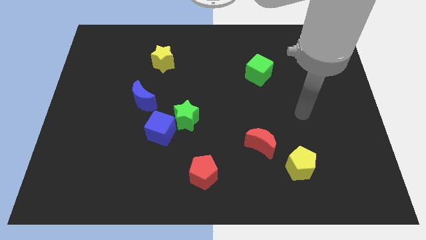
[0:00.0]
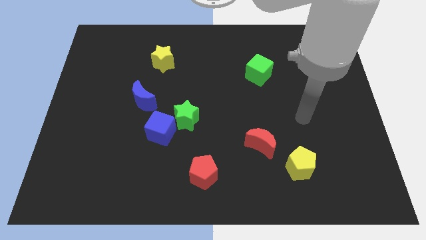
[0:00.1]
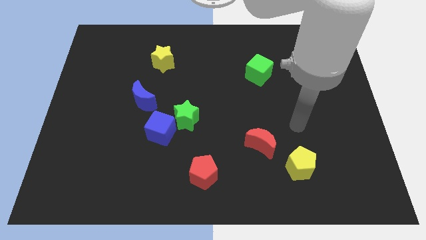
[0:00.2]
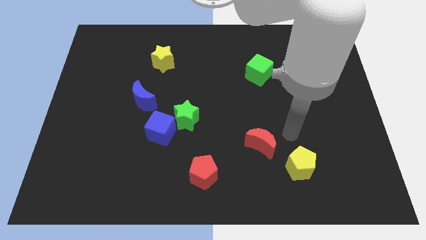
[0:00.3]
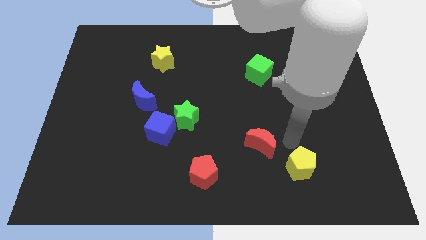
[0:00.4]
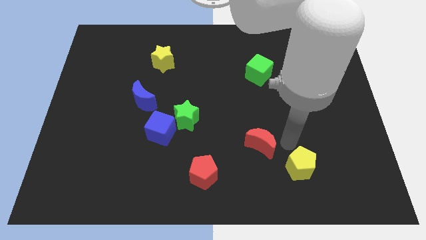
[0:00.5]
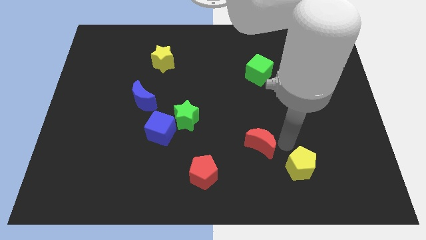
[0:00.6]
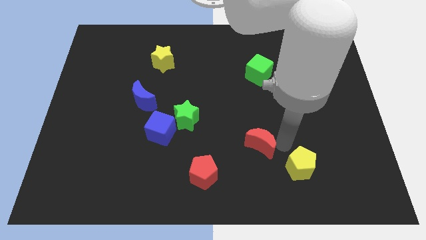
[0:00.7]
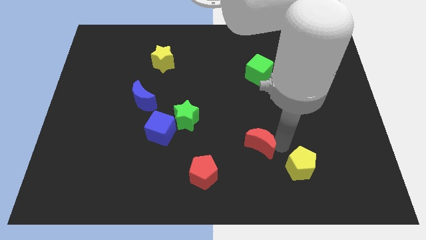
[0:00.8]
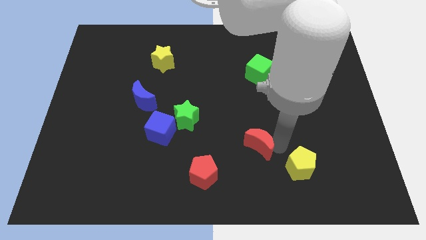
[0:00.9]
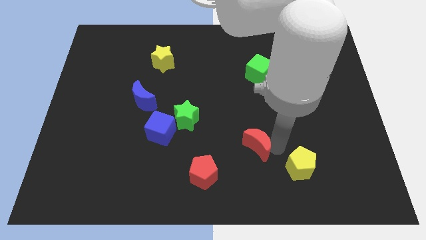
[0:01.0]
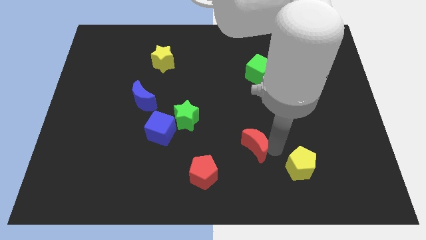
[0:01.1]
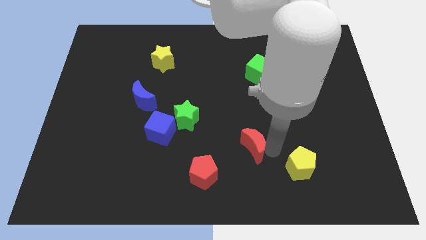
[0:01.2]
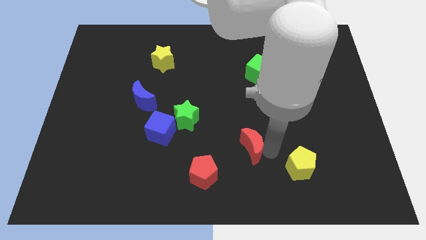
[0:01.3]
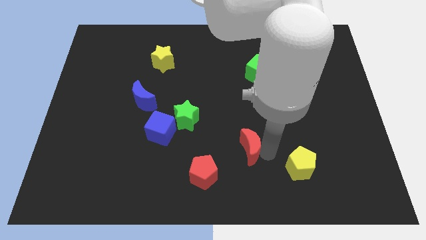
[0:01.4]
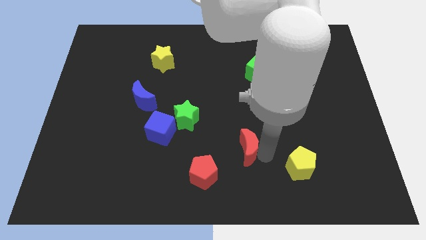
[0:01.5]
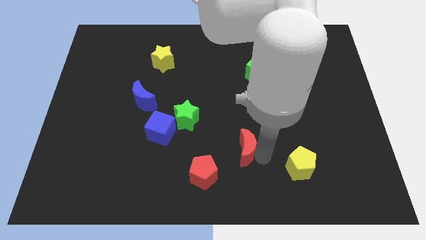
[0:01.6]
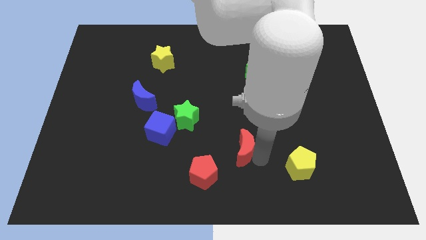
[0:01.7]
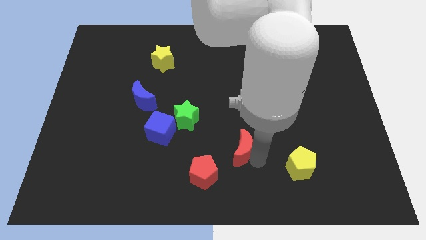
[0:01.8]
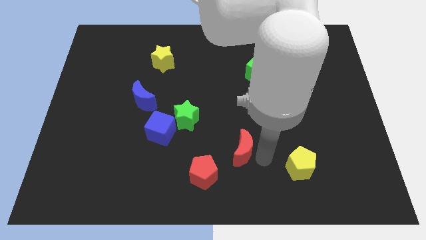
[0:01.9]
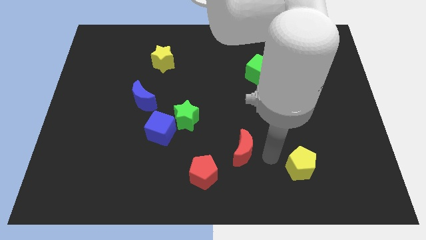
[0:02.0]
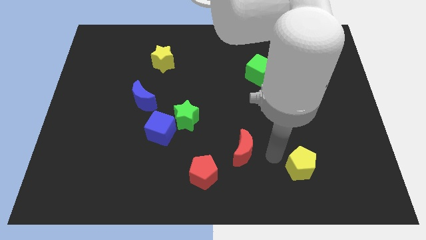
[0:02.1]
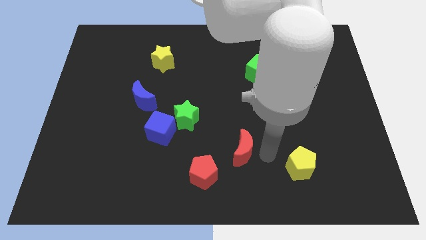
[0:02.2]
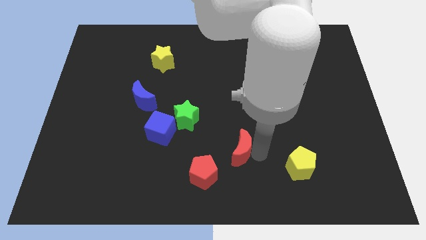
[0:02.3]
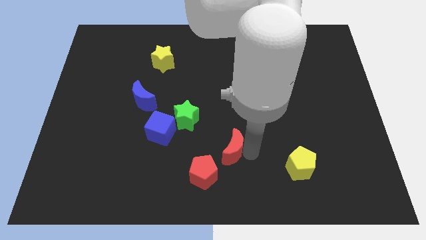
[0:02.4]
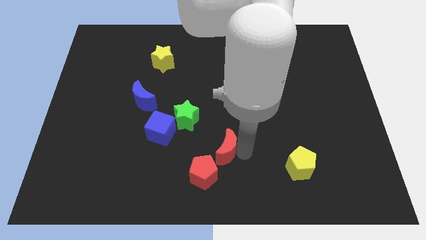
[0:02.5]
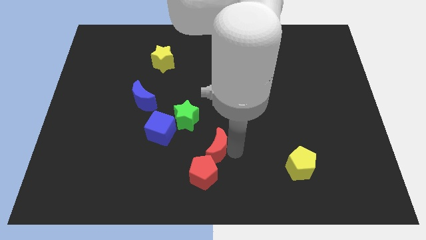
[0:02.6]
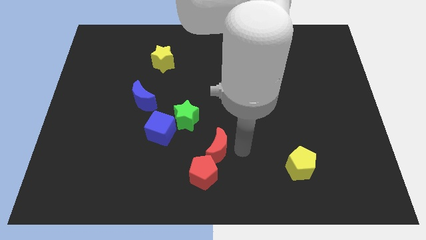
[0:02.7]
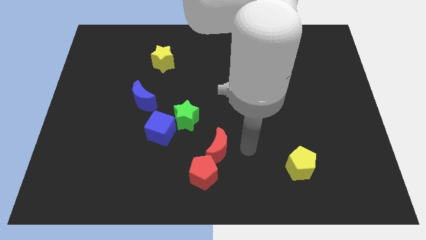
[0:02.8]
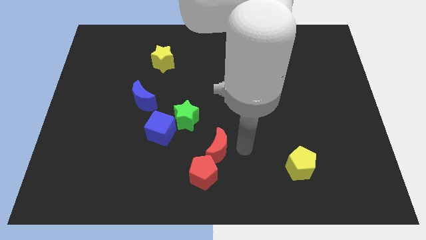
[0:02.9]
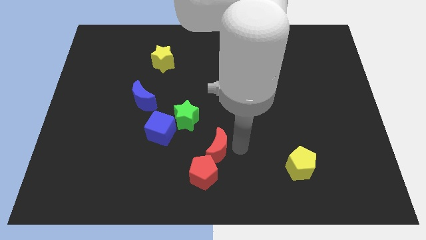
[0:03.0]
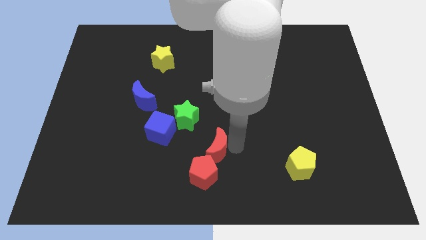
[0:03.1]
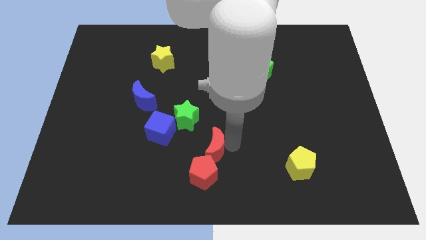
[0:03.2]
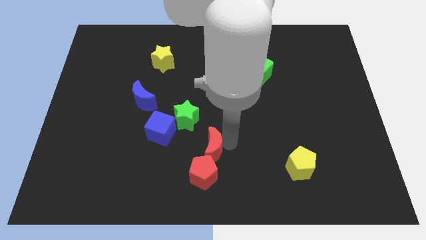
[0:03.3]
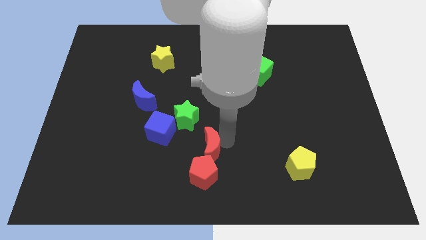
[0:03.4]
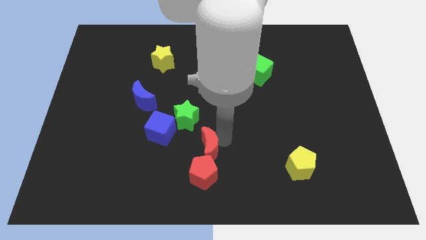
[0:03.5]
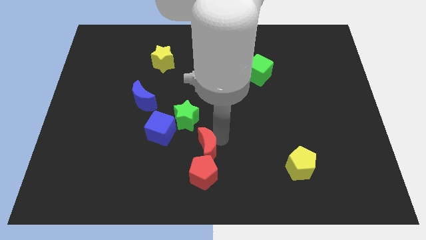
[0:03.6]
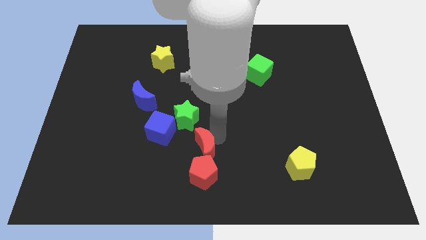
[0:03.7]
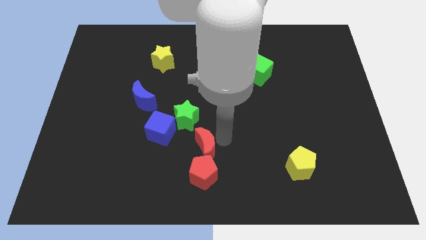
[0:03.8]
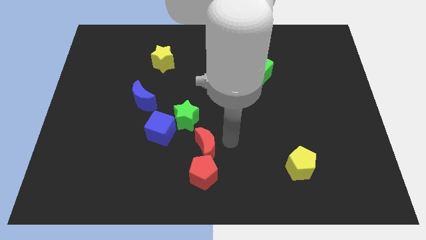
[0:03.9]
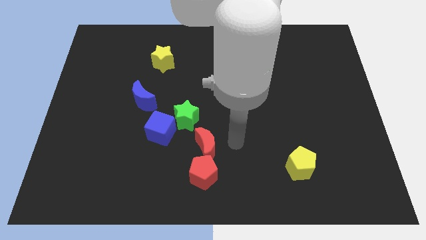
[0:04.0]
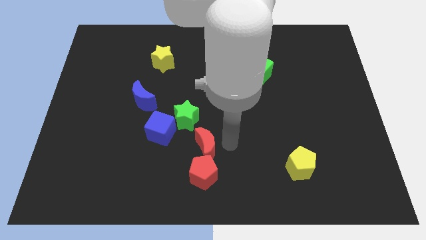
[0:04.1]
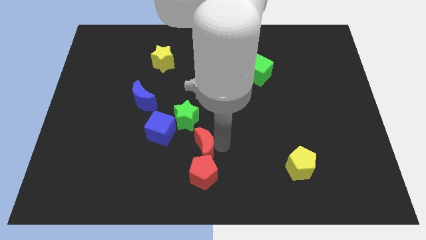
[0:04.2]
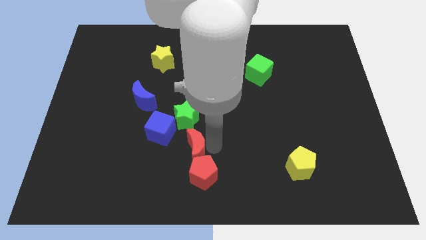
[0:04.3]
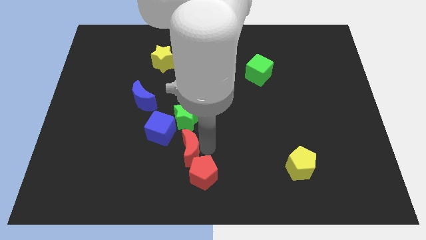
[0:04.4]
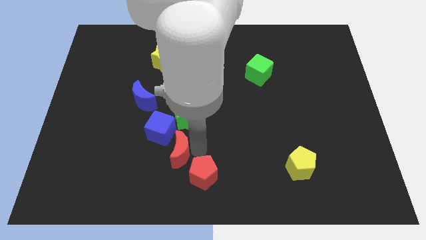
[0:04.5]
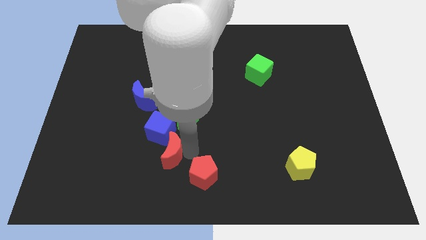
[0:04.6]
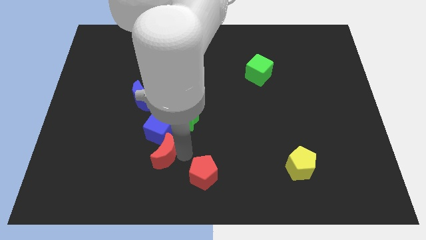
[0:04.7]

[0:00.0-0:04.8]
push the red moon left

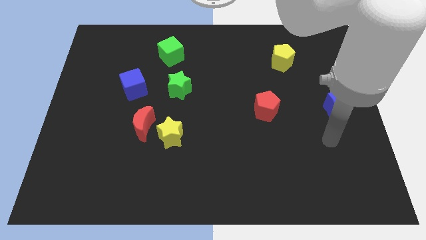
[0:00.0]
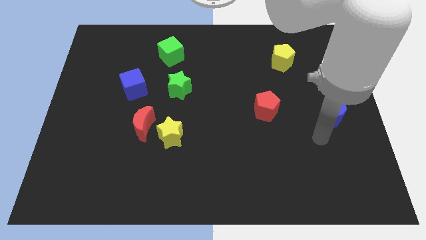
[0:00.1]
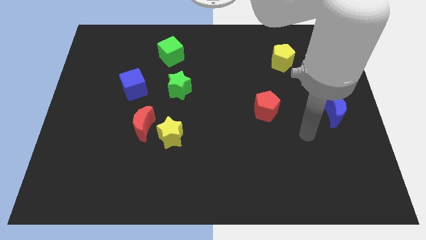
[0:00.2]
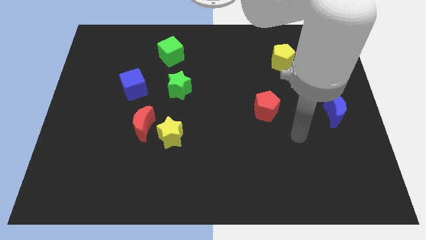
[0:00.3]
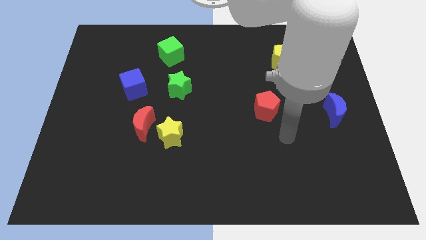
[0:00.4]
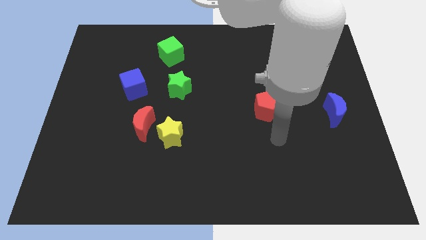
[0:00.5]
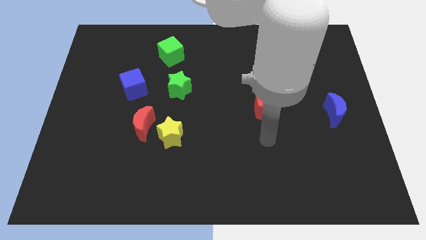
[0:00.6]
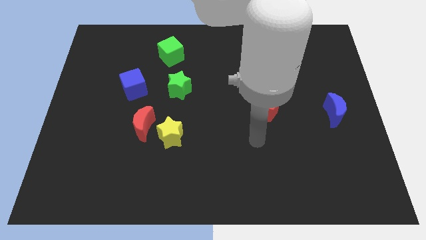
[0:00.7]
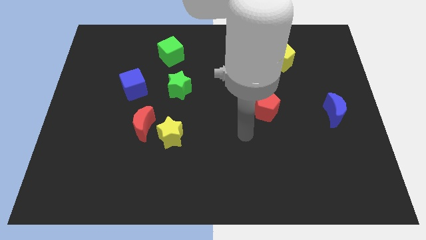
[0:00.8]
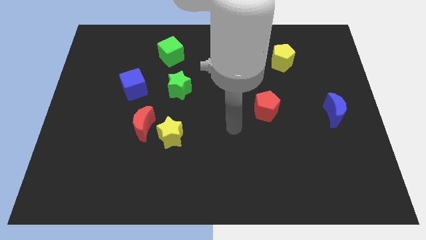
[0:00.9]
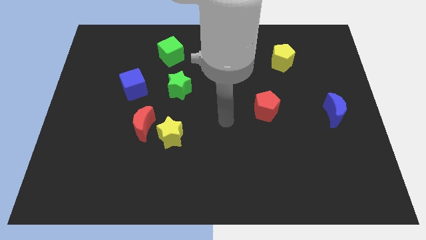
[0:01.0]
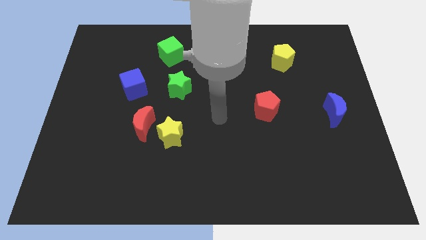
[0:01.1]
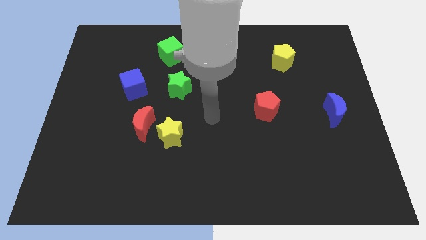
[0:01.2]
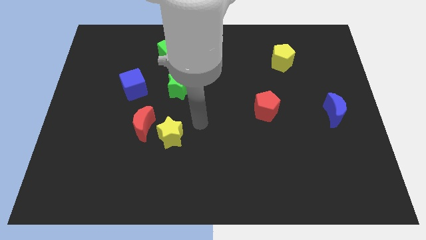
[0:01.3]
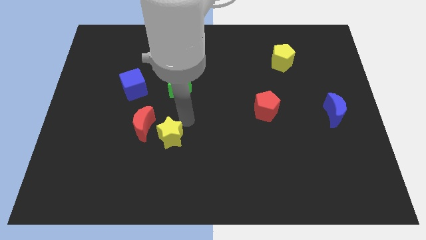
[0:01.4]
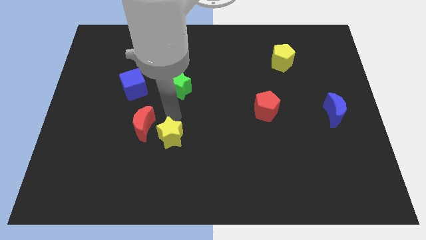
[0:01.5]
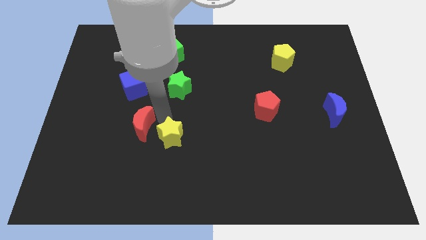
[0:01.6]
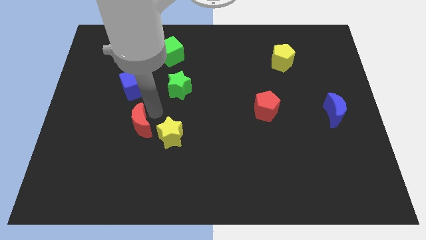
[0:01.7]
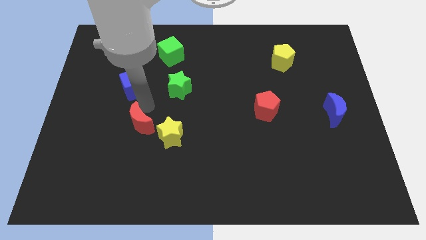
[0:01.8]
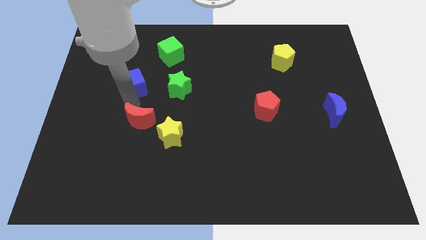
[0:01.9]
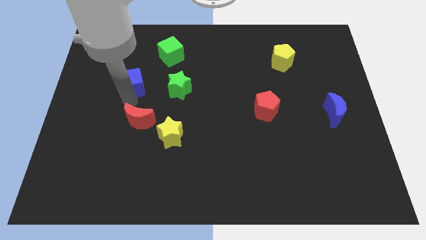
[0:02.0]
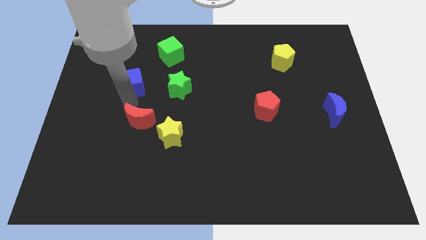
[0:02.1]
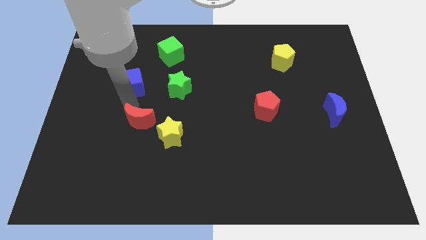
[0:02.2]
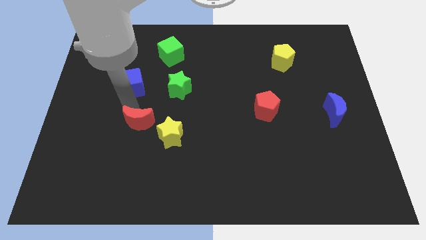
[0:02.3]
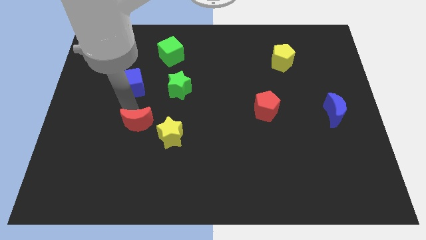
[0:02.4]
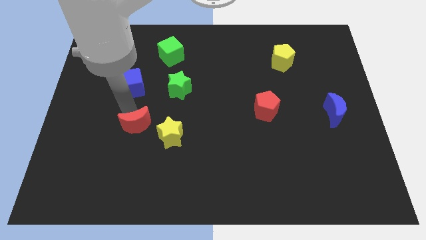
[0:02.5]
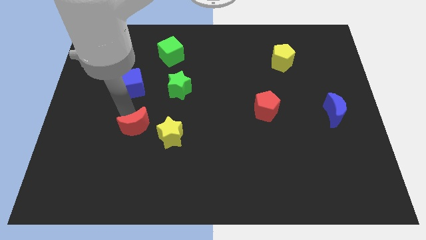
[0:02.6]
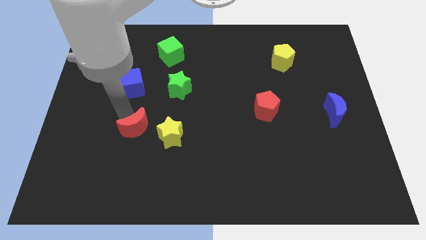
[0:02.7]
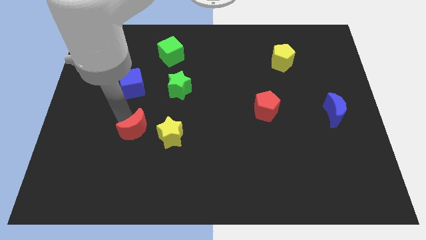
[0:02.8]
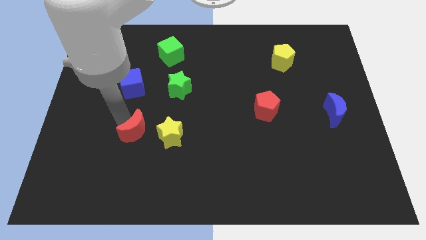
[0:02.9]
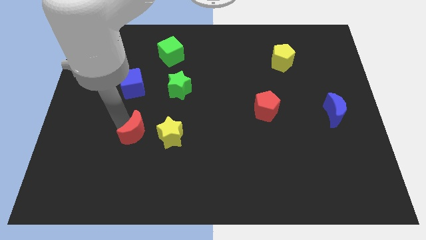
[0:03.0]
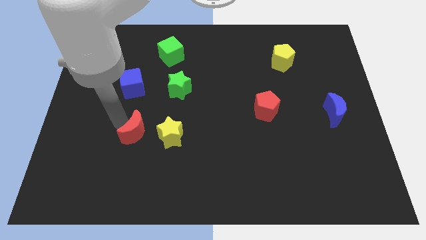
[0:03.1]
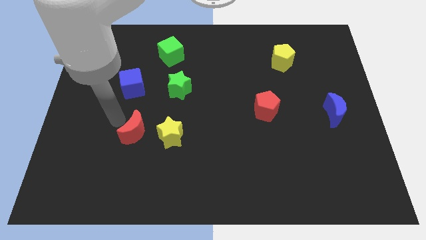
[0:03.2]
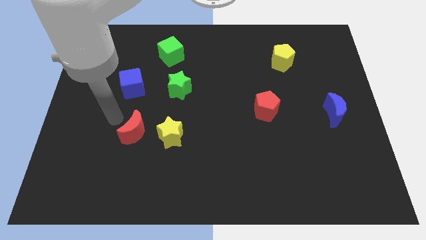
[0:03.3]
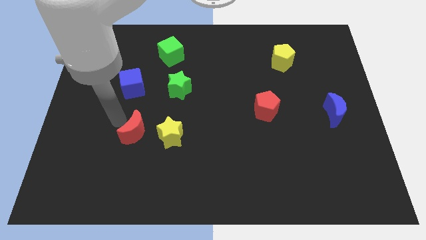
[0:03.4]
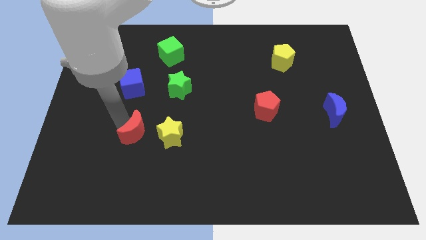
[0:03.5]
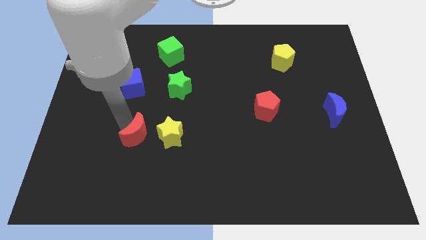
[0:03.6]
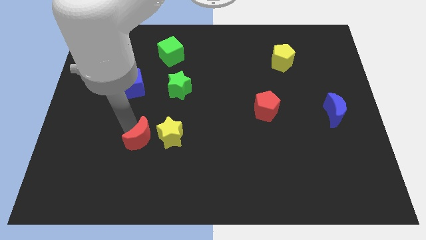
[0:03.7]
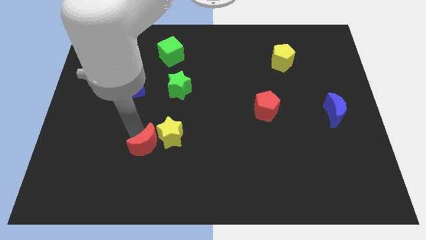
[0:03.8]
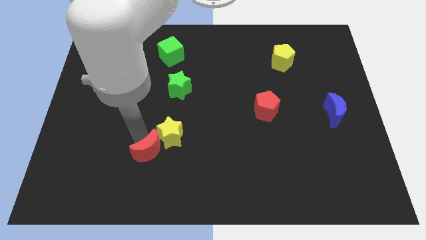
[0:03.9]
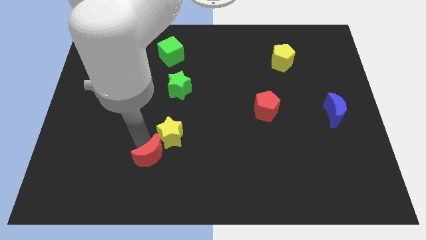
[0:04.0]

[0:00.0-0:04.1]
slide the red moon somewhat diagonally down and right
